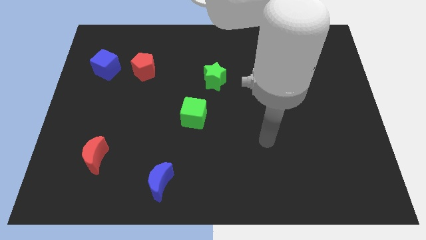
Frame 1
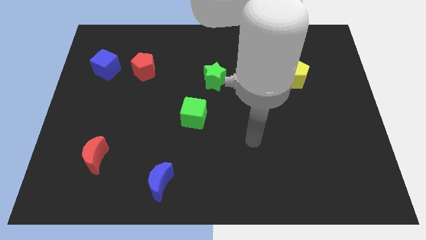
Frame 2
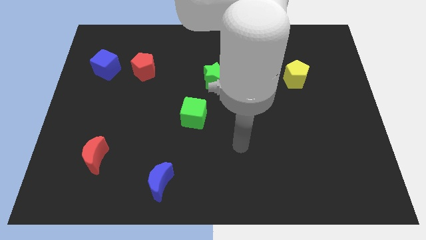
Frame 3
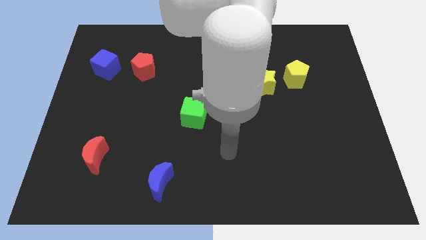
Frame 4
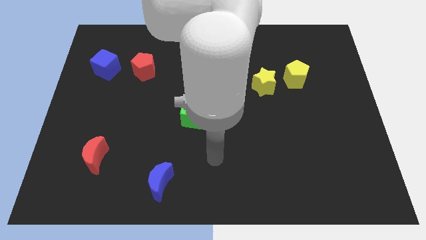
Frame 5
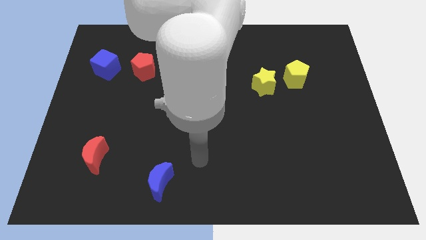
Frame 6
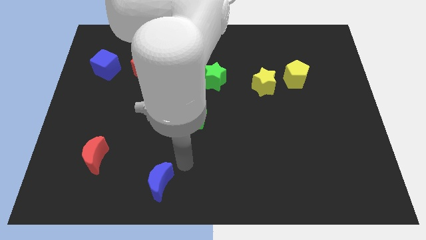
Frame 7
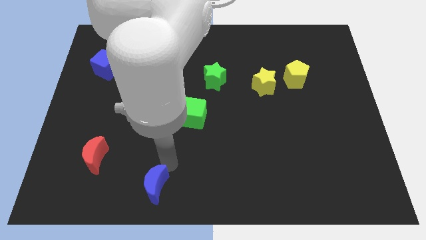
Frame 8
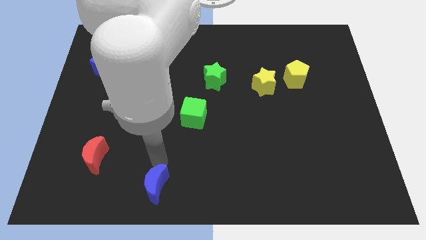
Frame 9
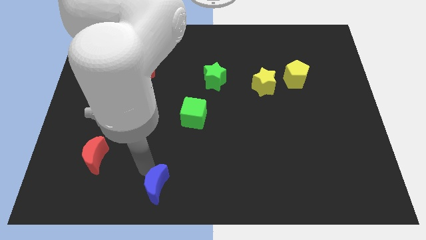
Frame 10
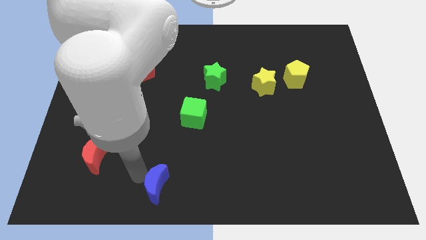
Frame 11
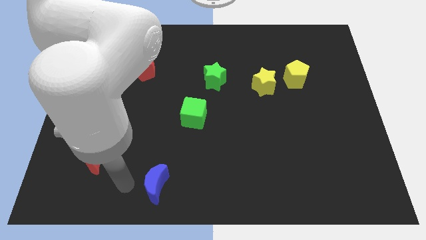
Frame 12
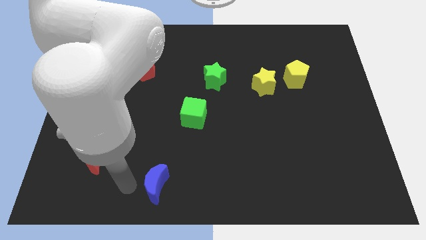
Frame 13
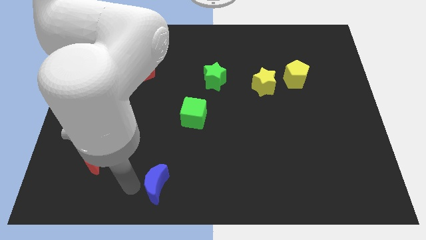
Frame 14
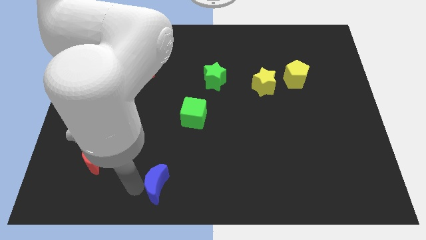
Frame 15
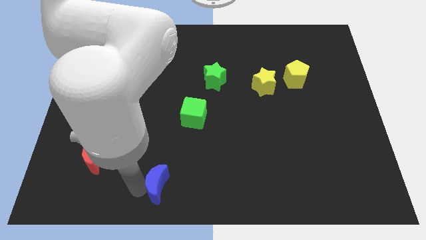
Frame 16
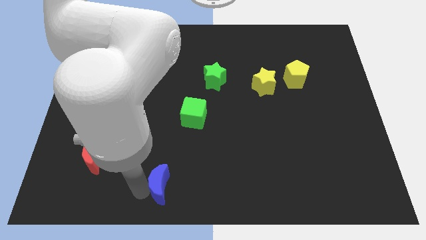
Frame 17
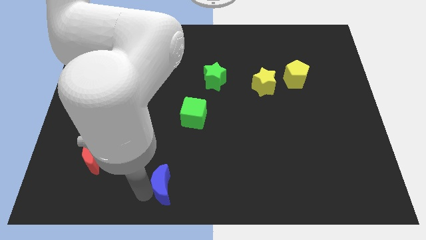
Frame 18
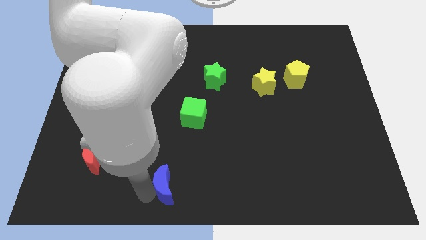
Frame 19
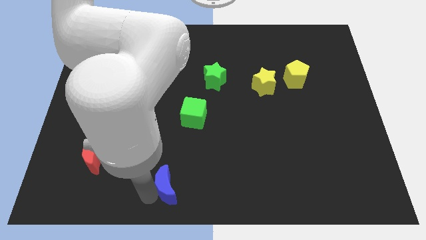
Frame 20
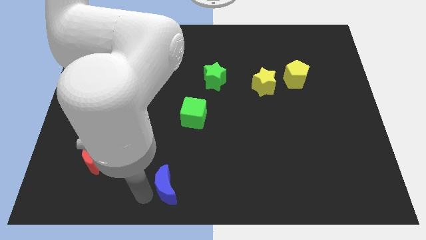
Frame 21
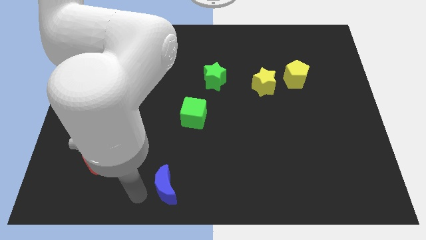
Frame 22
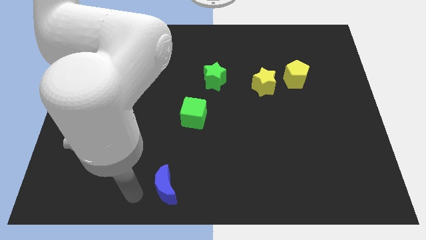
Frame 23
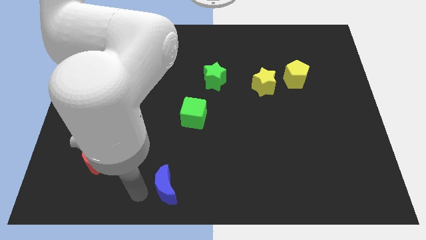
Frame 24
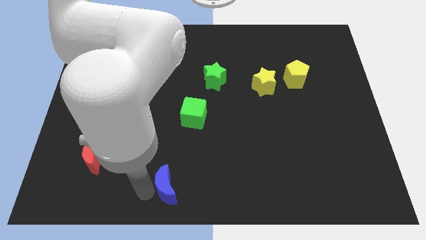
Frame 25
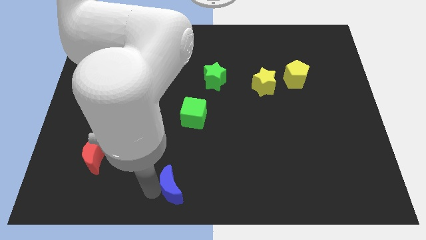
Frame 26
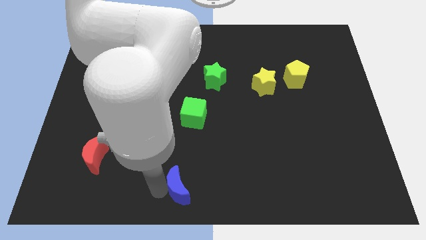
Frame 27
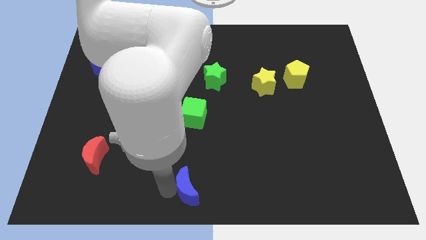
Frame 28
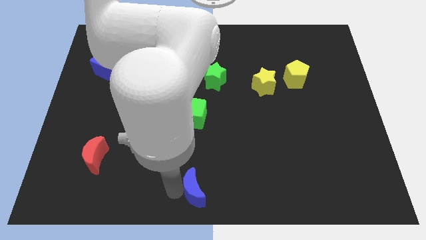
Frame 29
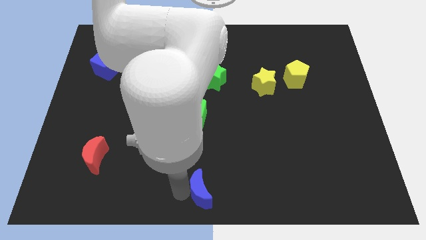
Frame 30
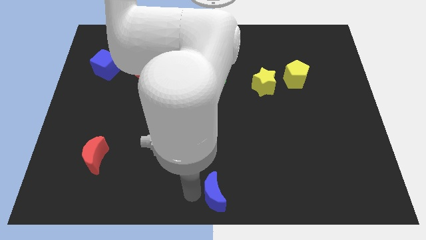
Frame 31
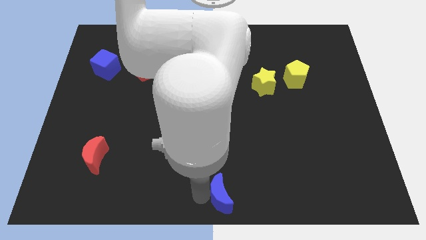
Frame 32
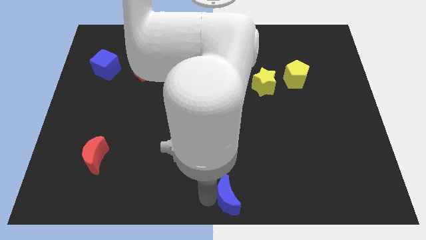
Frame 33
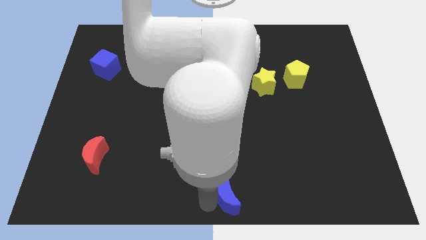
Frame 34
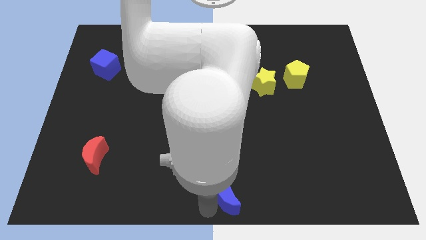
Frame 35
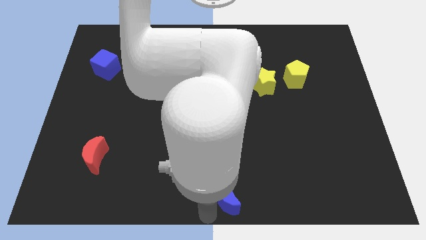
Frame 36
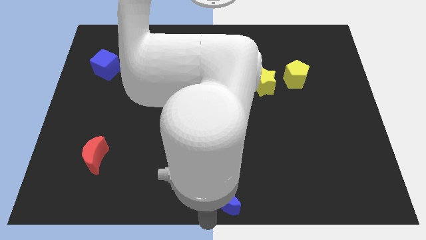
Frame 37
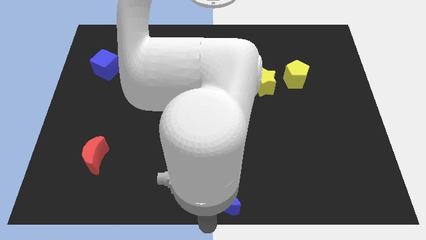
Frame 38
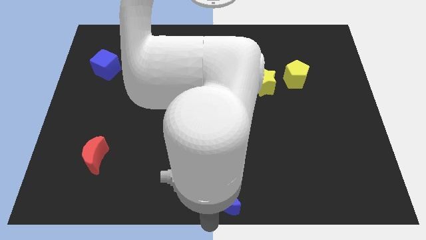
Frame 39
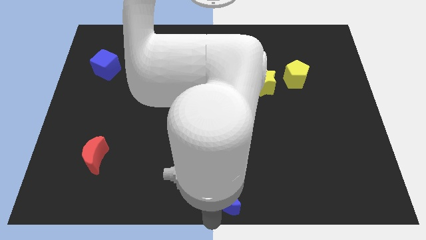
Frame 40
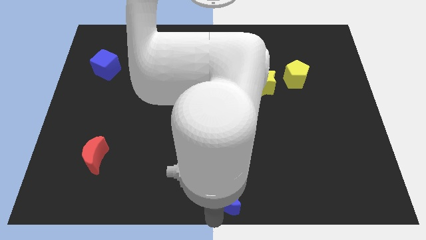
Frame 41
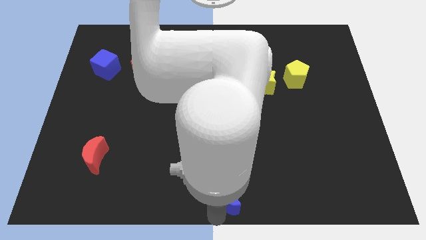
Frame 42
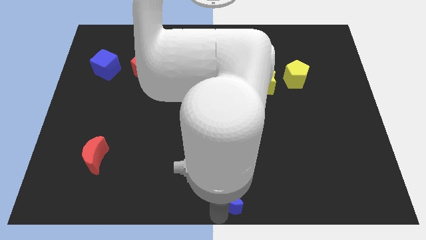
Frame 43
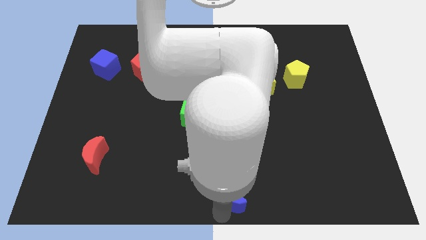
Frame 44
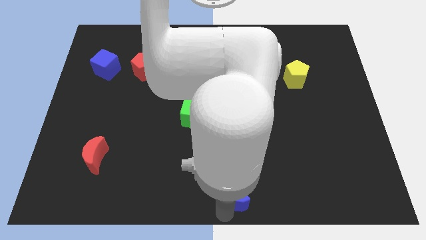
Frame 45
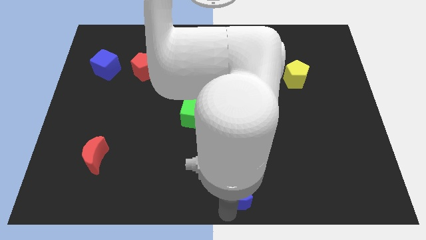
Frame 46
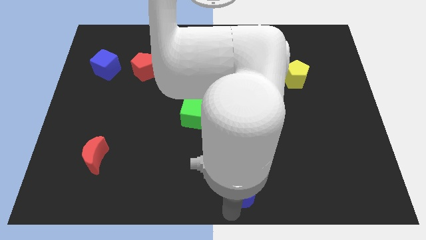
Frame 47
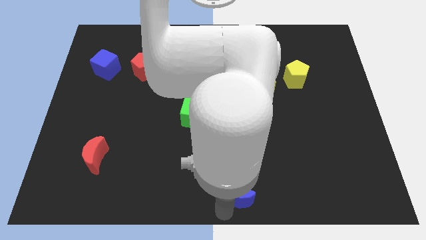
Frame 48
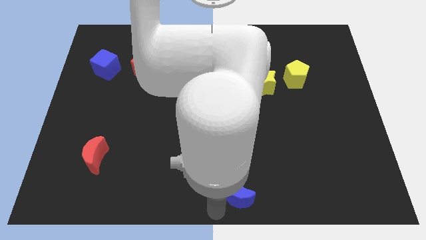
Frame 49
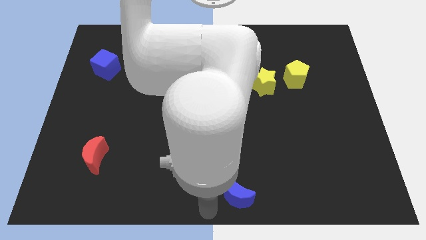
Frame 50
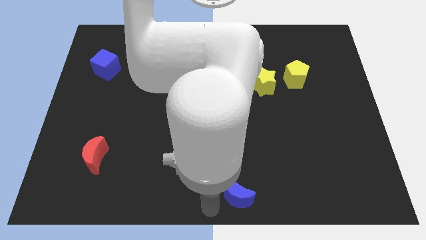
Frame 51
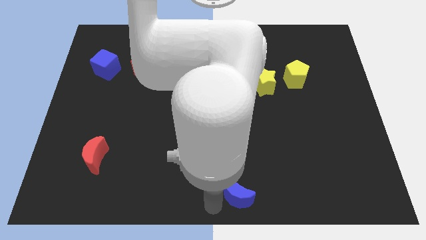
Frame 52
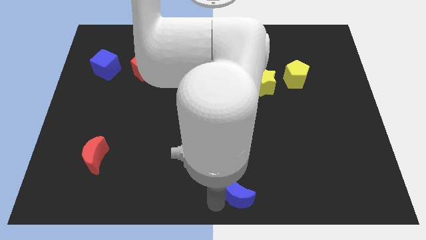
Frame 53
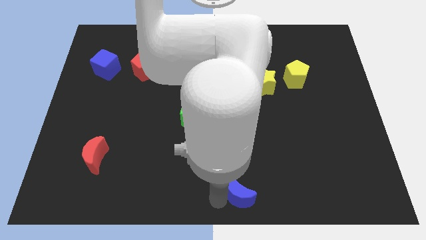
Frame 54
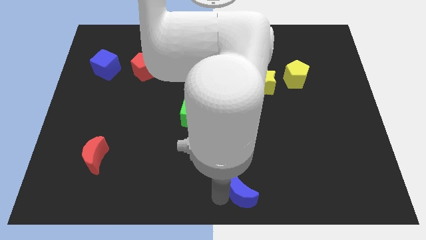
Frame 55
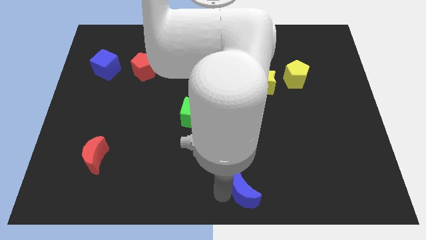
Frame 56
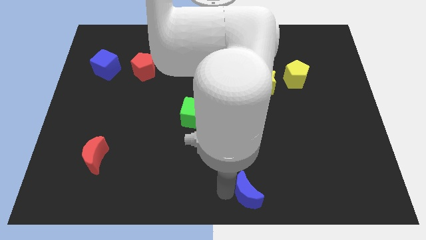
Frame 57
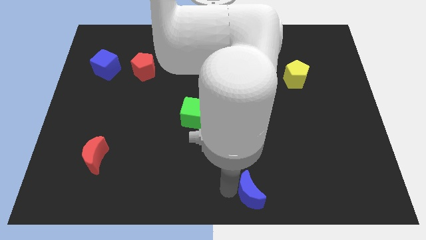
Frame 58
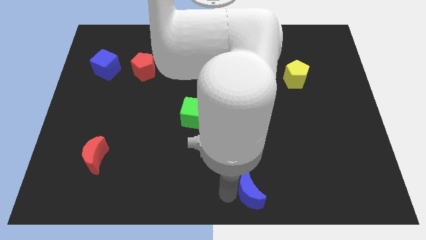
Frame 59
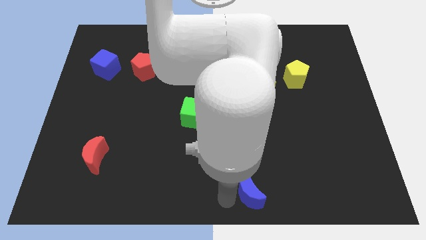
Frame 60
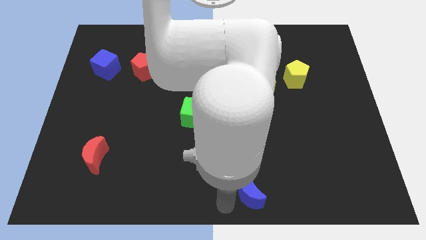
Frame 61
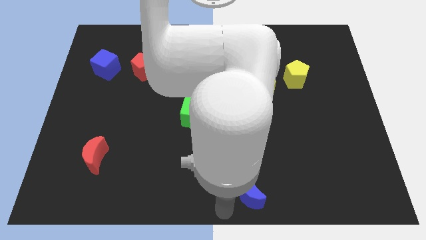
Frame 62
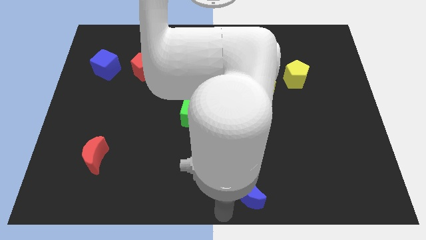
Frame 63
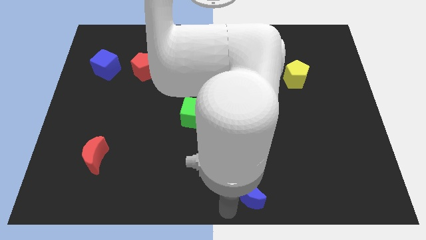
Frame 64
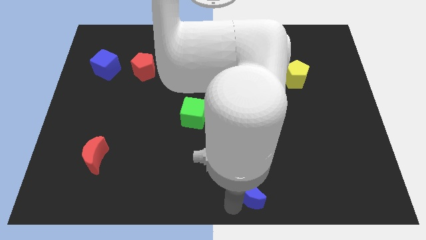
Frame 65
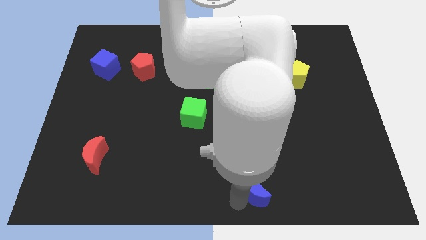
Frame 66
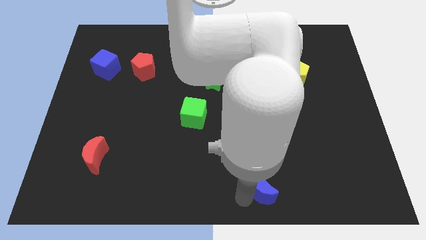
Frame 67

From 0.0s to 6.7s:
slide the blue moon to the right

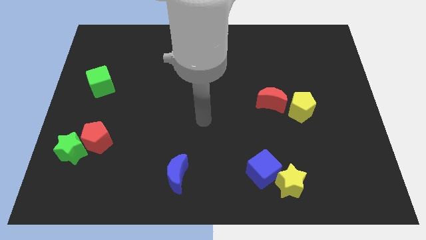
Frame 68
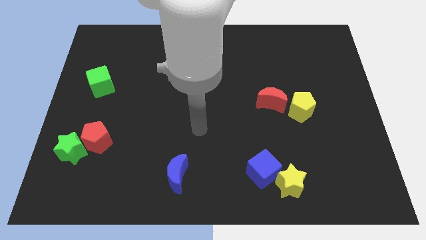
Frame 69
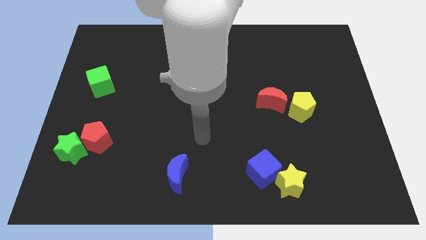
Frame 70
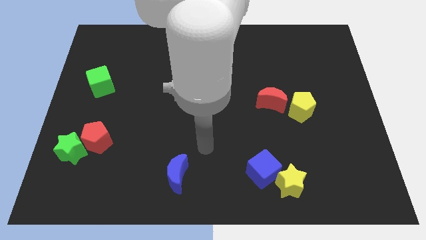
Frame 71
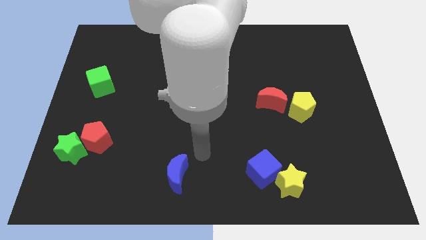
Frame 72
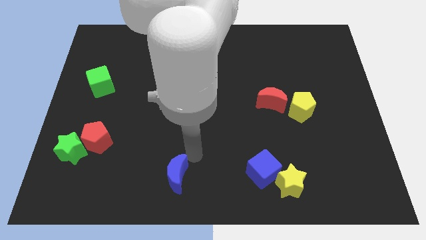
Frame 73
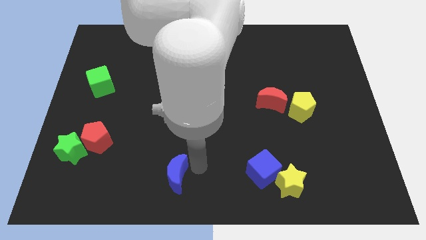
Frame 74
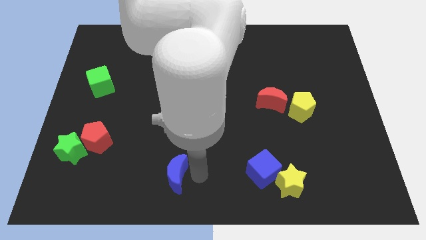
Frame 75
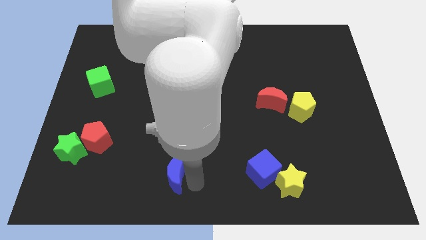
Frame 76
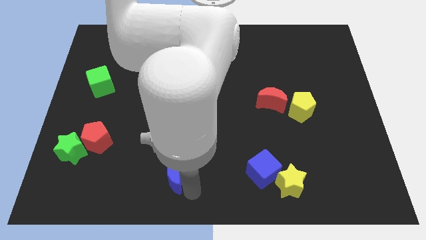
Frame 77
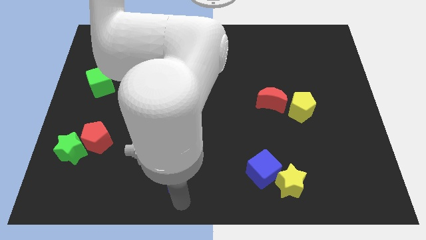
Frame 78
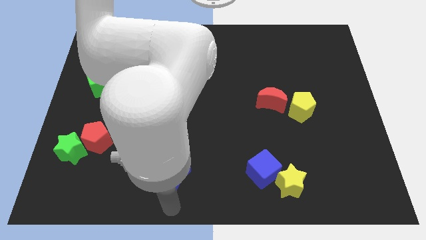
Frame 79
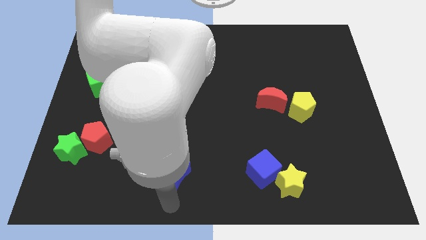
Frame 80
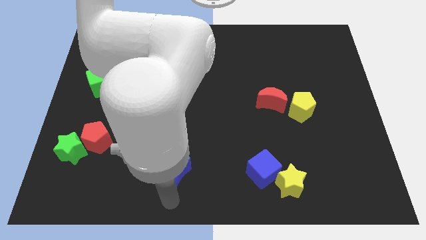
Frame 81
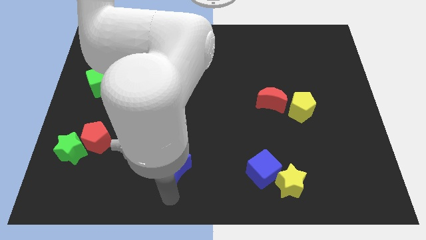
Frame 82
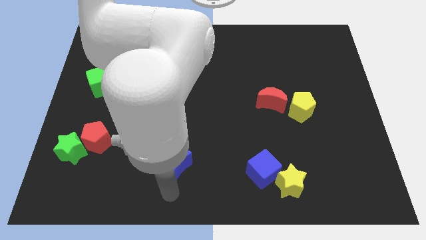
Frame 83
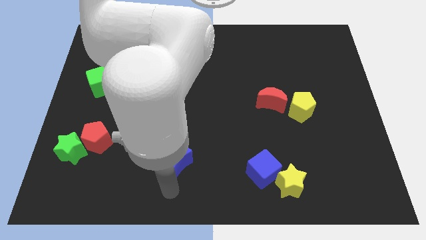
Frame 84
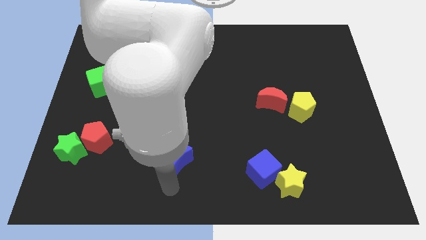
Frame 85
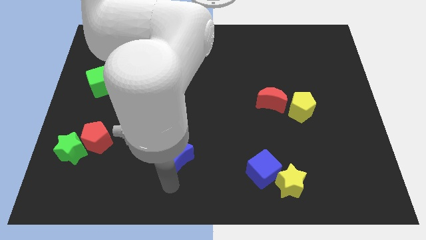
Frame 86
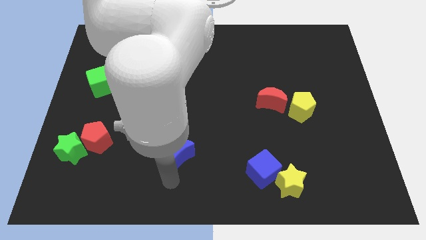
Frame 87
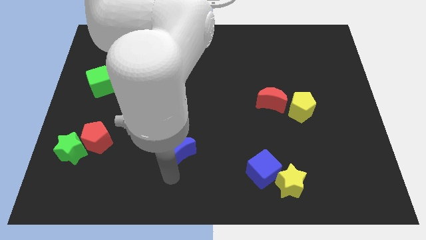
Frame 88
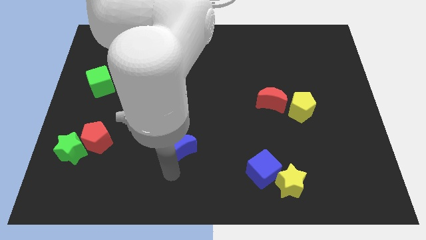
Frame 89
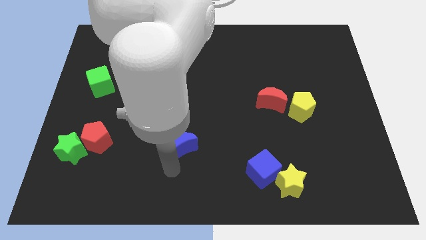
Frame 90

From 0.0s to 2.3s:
move the blue moon upwards a little bit
